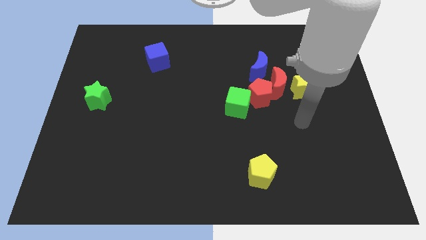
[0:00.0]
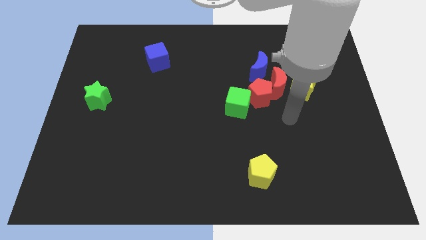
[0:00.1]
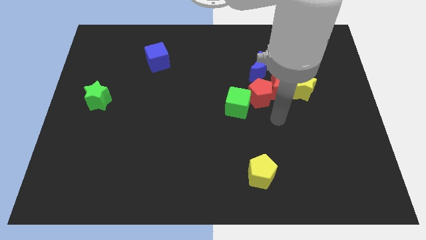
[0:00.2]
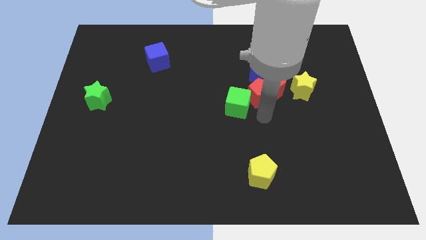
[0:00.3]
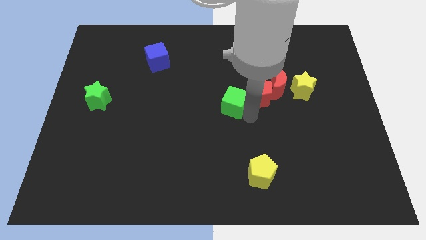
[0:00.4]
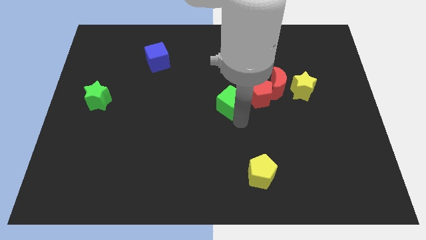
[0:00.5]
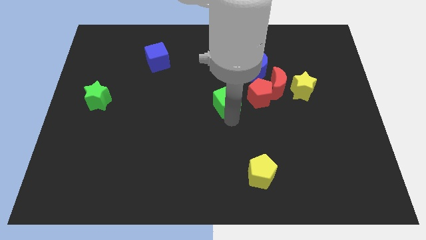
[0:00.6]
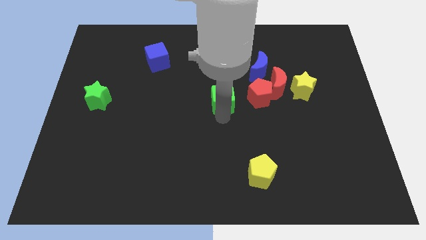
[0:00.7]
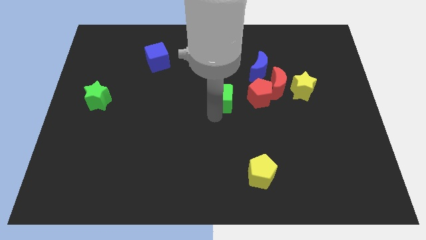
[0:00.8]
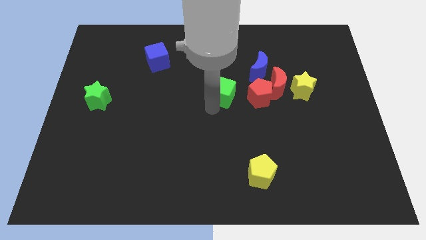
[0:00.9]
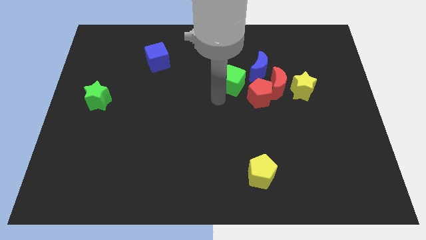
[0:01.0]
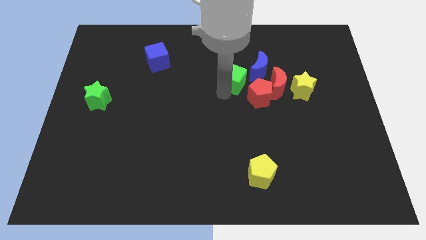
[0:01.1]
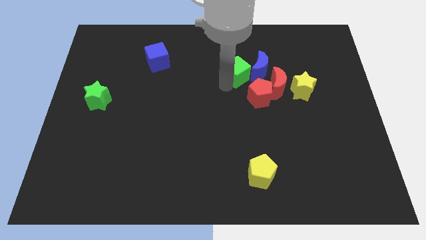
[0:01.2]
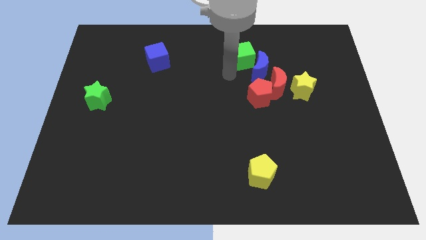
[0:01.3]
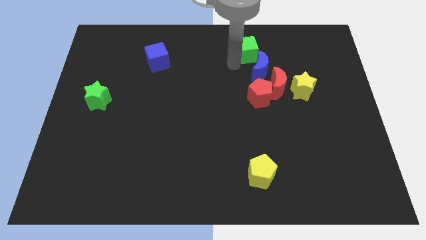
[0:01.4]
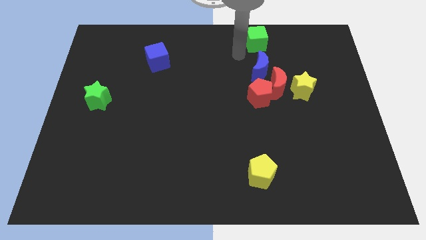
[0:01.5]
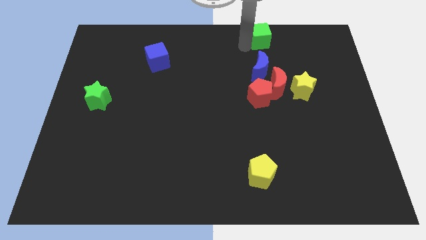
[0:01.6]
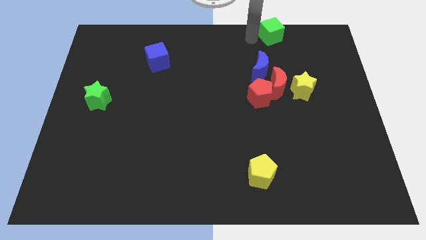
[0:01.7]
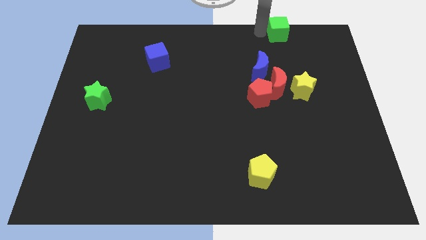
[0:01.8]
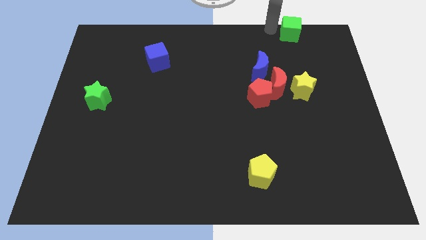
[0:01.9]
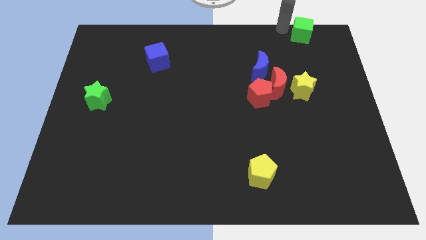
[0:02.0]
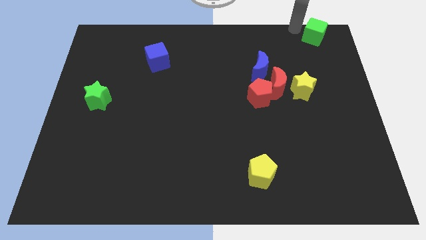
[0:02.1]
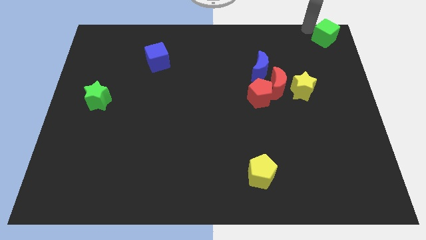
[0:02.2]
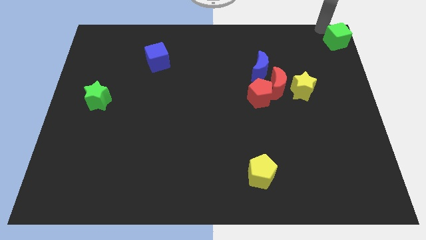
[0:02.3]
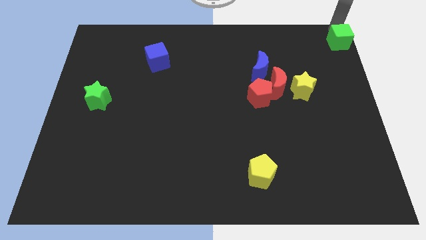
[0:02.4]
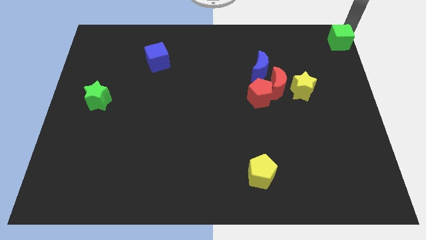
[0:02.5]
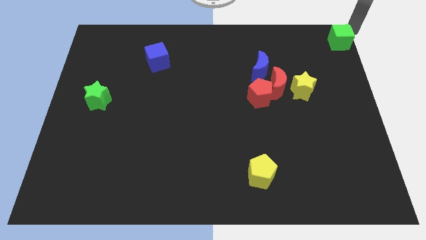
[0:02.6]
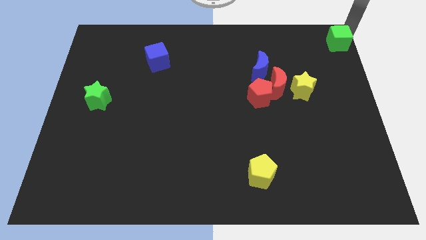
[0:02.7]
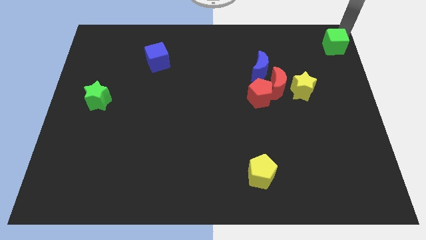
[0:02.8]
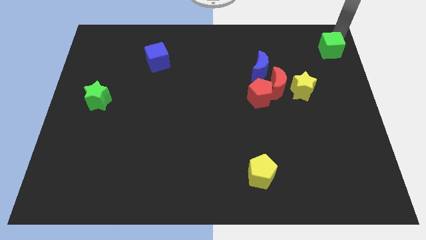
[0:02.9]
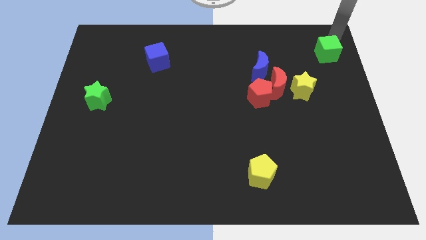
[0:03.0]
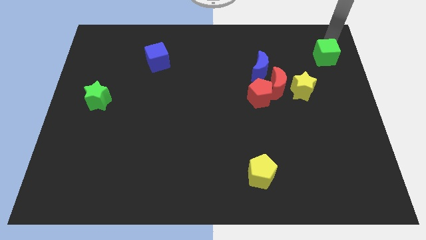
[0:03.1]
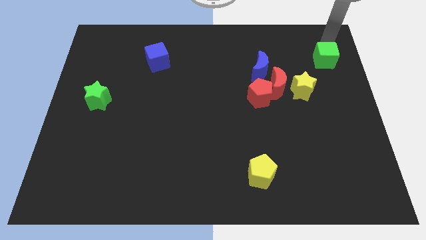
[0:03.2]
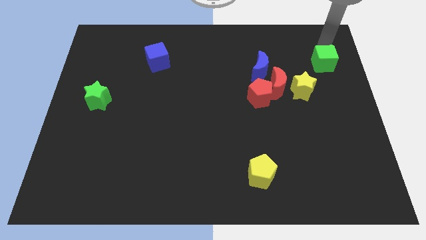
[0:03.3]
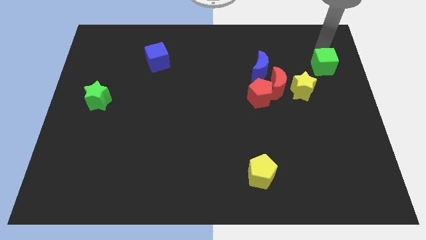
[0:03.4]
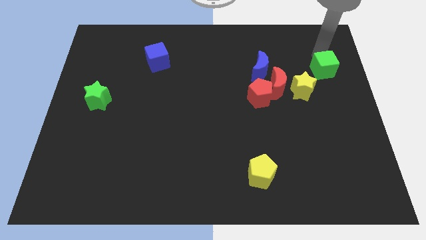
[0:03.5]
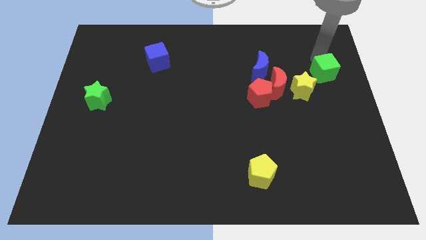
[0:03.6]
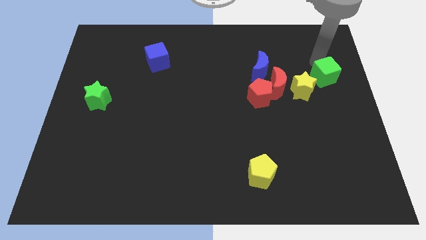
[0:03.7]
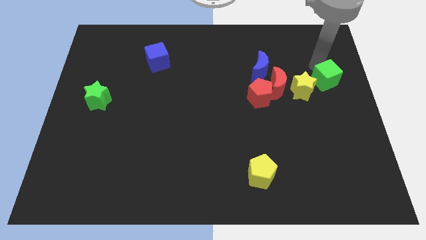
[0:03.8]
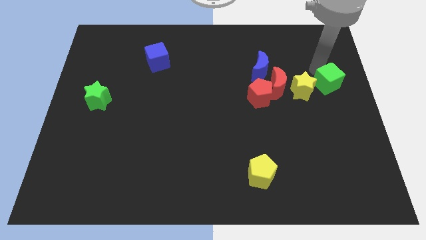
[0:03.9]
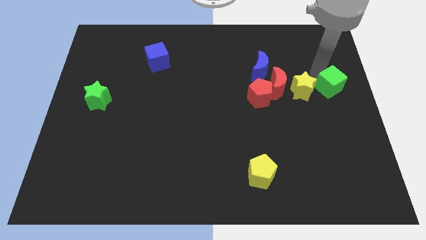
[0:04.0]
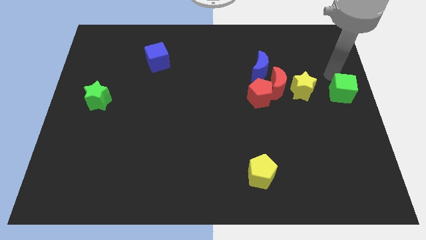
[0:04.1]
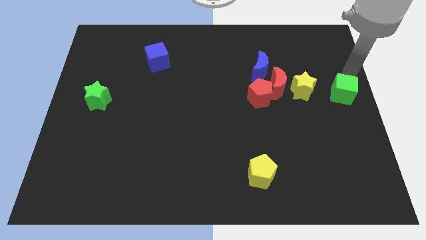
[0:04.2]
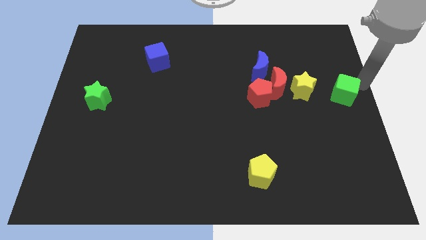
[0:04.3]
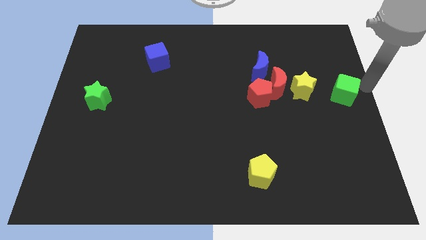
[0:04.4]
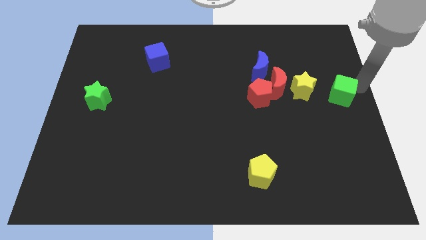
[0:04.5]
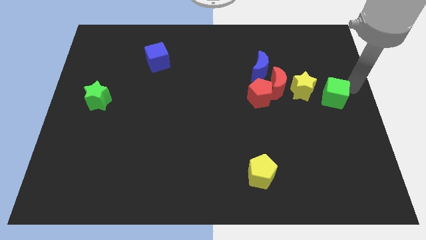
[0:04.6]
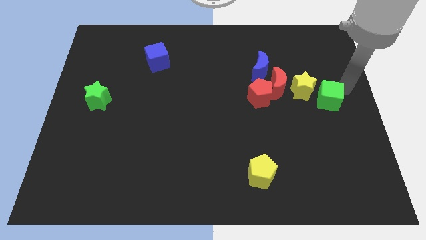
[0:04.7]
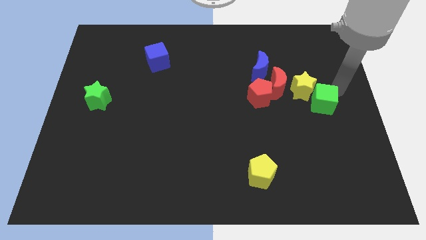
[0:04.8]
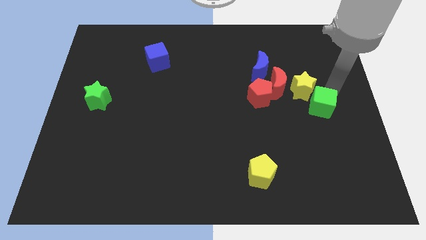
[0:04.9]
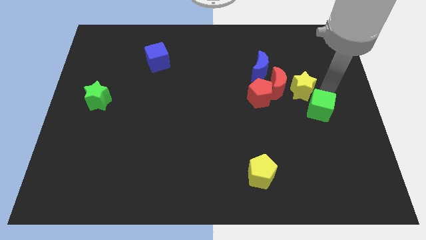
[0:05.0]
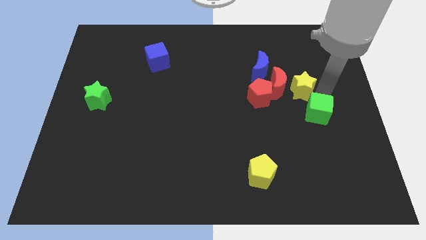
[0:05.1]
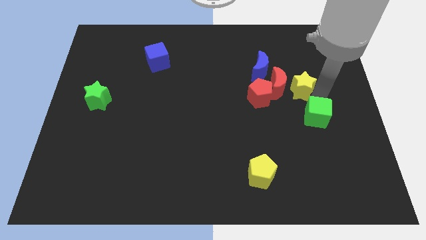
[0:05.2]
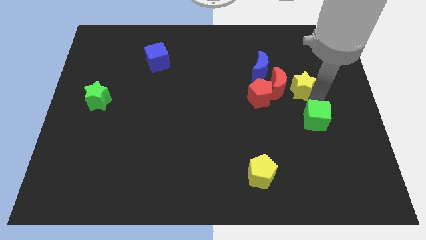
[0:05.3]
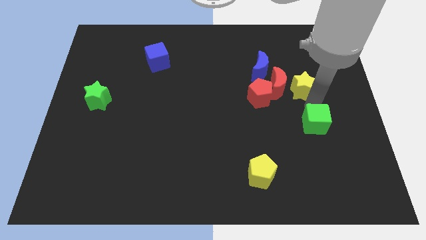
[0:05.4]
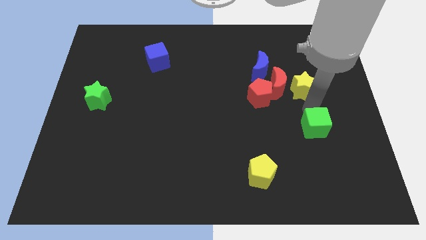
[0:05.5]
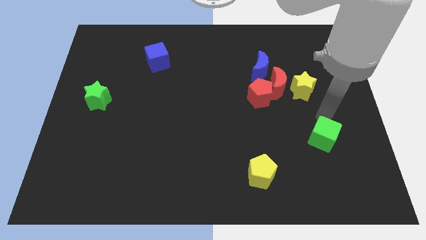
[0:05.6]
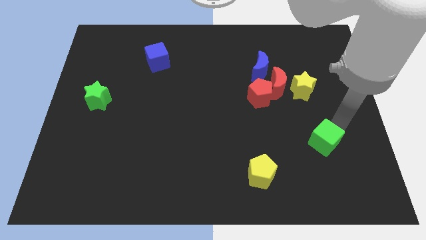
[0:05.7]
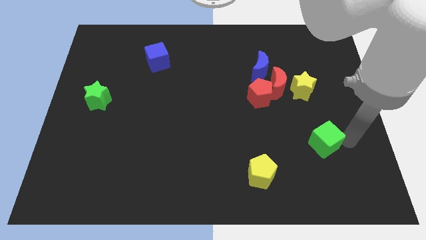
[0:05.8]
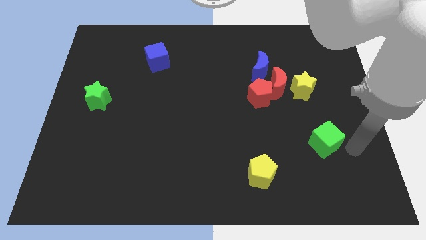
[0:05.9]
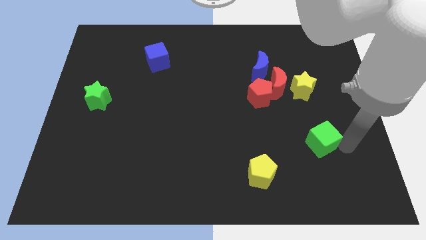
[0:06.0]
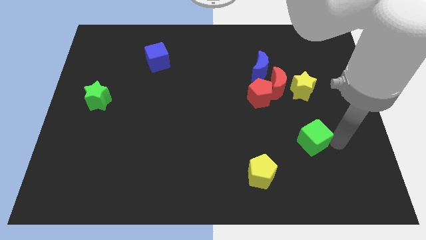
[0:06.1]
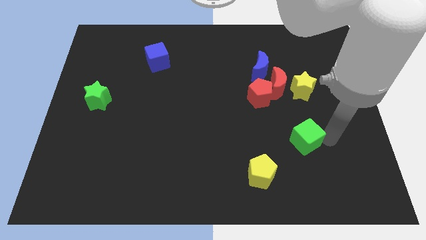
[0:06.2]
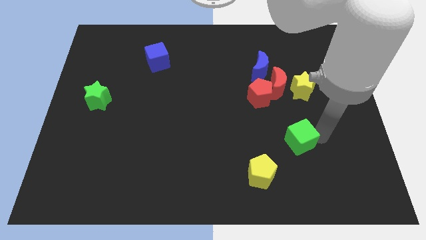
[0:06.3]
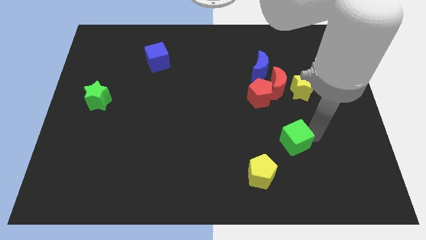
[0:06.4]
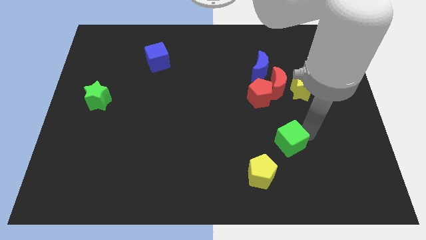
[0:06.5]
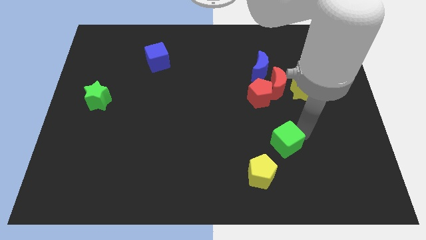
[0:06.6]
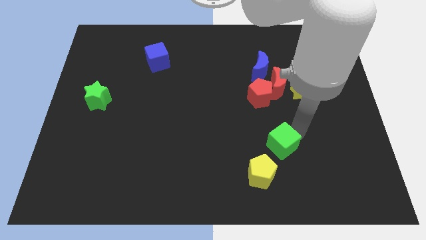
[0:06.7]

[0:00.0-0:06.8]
slide the green cube somewhat down

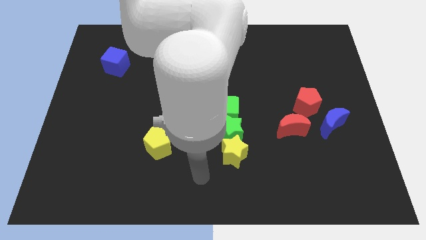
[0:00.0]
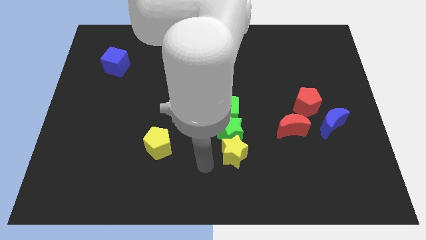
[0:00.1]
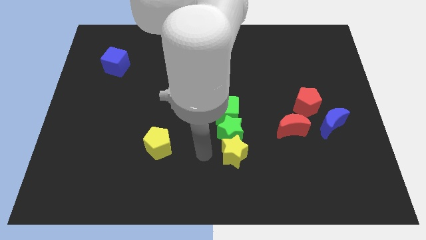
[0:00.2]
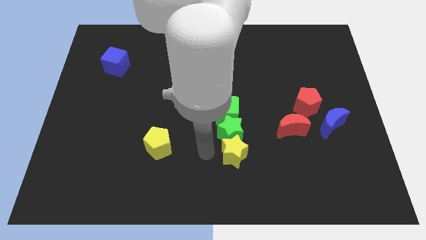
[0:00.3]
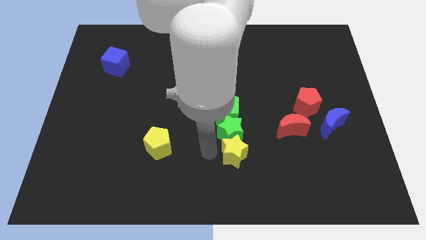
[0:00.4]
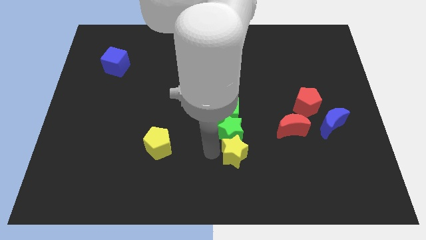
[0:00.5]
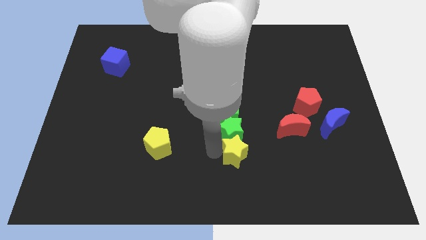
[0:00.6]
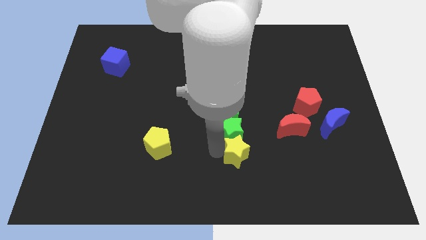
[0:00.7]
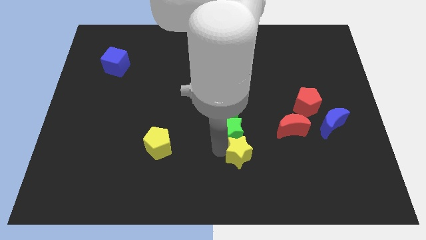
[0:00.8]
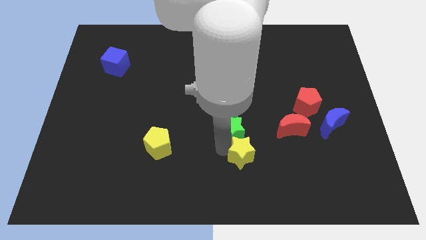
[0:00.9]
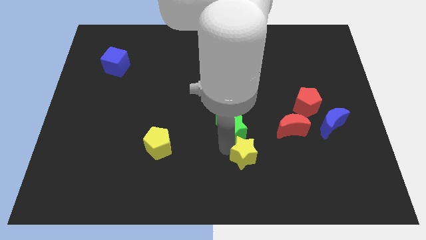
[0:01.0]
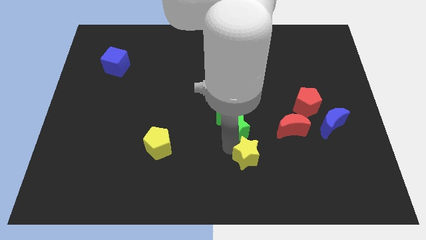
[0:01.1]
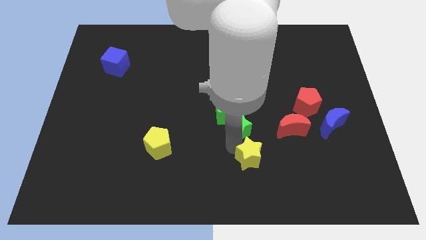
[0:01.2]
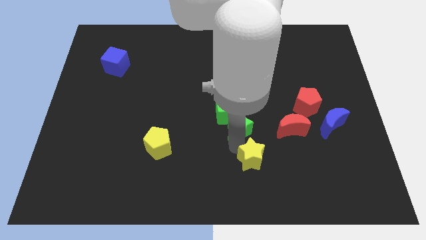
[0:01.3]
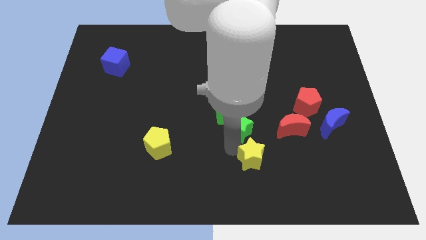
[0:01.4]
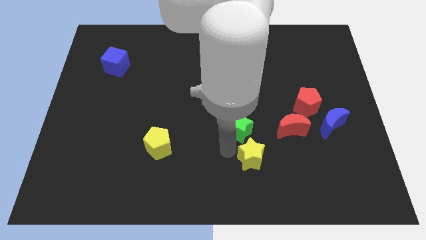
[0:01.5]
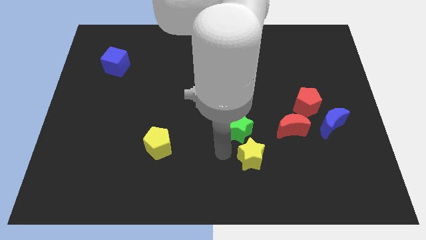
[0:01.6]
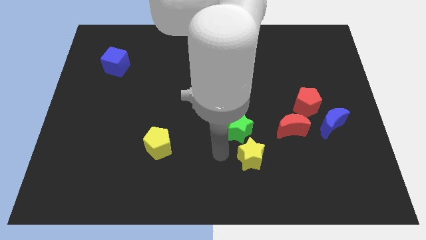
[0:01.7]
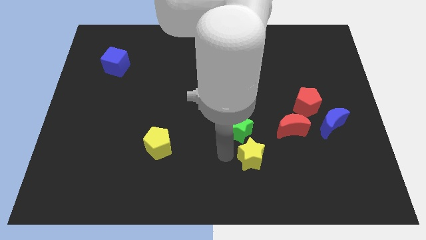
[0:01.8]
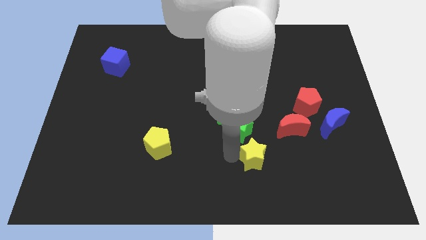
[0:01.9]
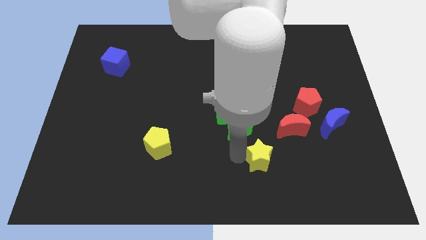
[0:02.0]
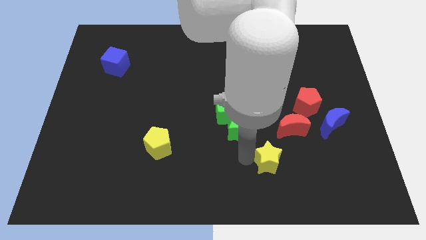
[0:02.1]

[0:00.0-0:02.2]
slightly slide the yellow star right
